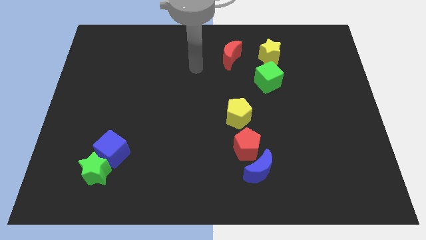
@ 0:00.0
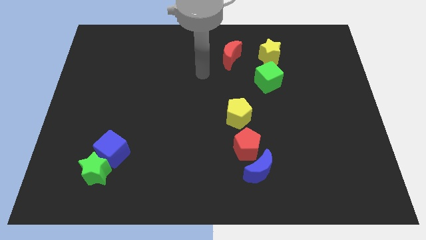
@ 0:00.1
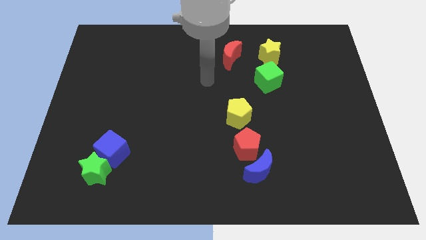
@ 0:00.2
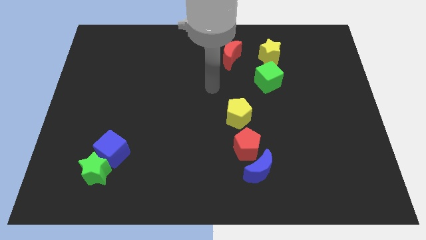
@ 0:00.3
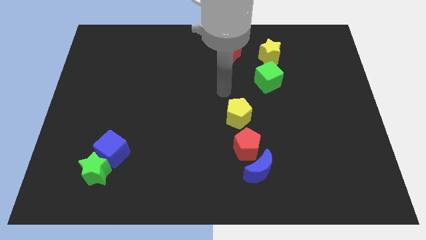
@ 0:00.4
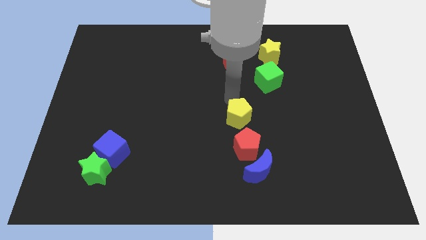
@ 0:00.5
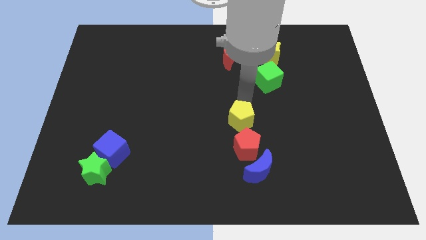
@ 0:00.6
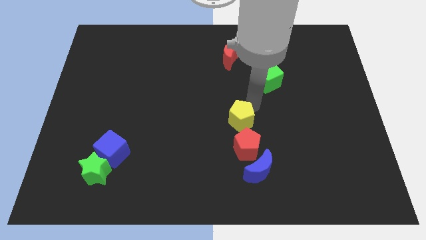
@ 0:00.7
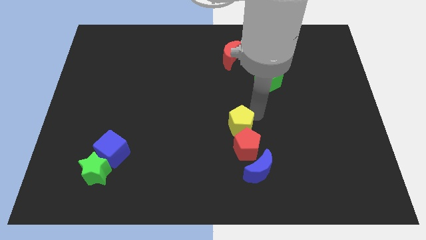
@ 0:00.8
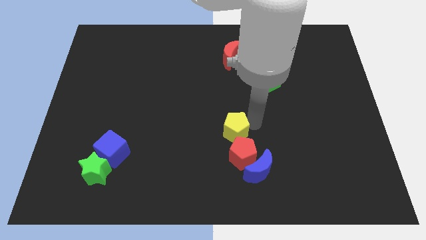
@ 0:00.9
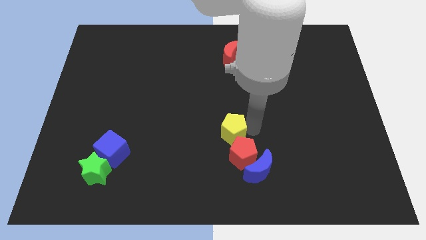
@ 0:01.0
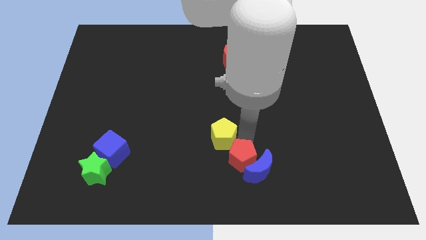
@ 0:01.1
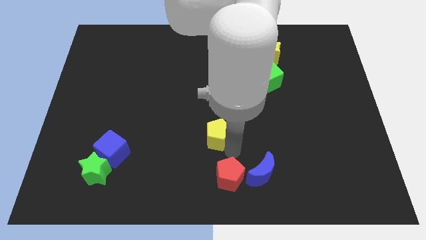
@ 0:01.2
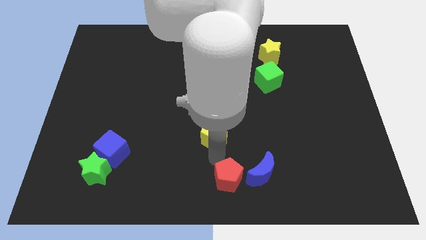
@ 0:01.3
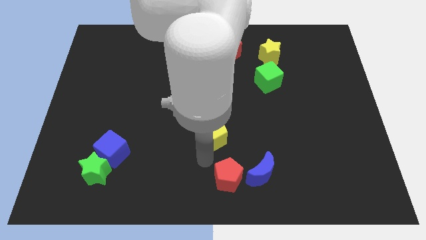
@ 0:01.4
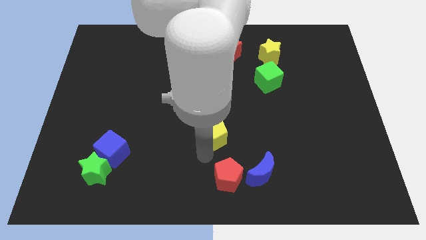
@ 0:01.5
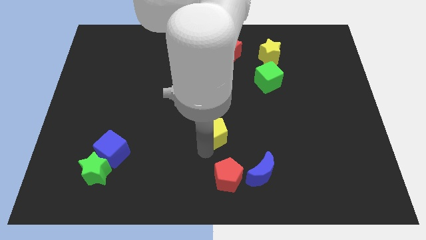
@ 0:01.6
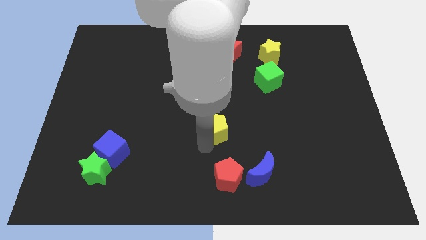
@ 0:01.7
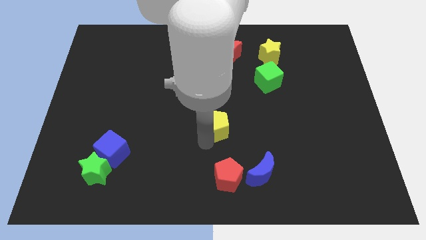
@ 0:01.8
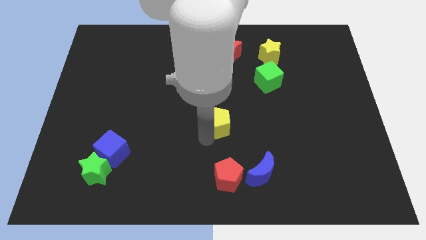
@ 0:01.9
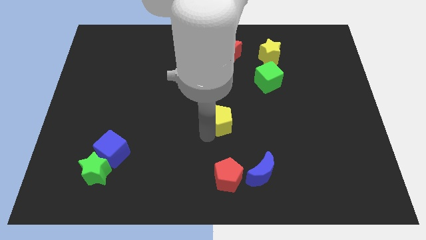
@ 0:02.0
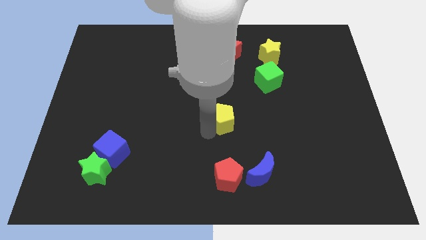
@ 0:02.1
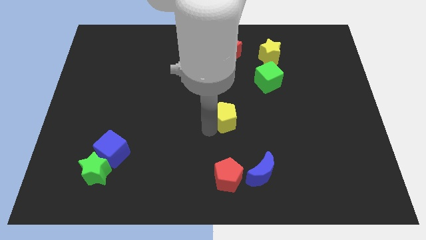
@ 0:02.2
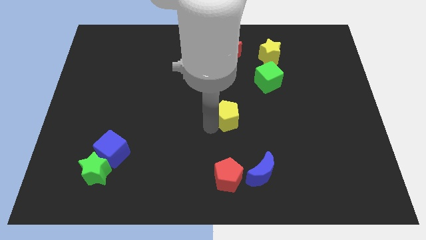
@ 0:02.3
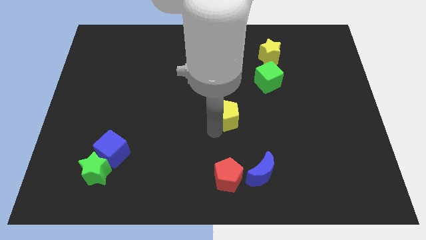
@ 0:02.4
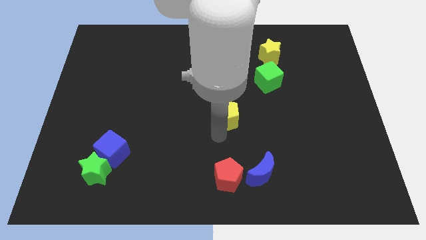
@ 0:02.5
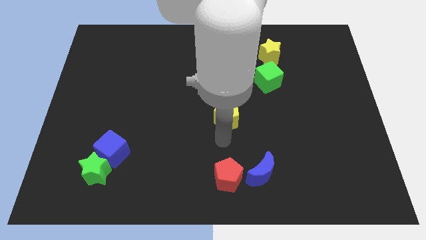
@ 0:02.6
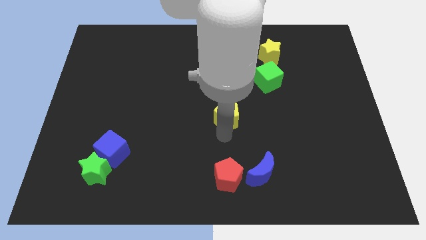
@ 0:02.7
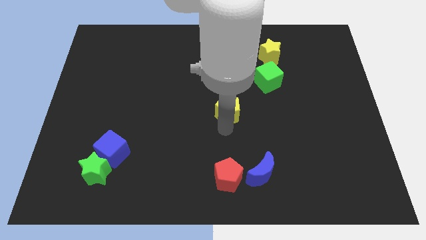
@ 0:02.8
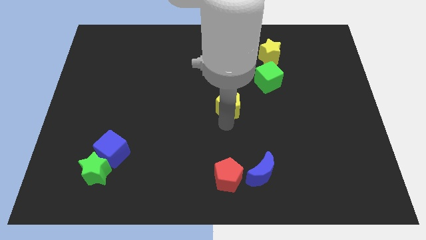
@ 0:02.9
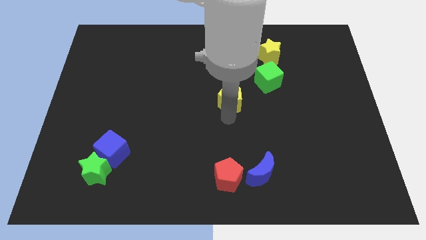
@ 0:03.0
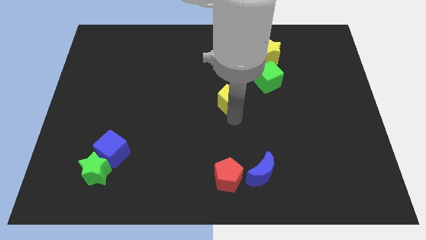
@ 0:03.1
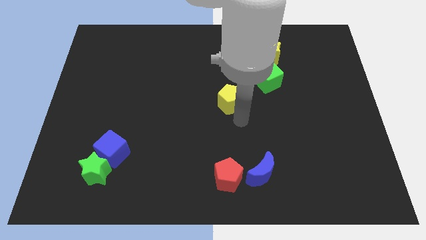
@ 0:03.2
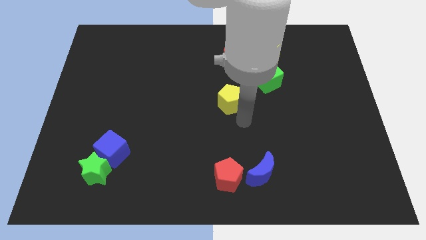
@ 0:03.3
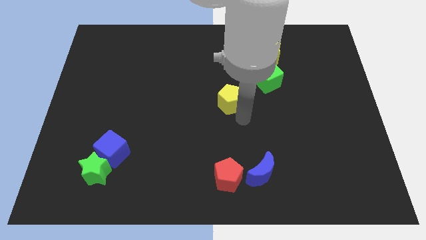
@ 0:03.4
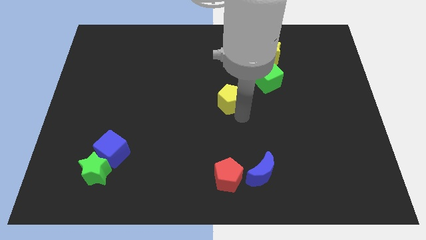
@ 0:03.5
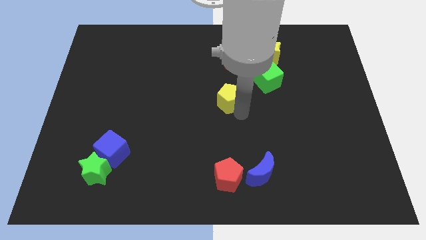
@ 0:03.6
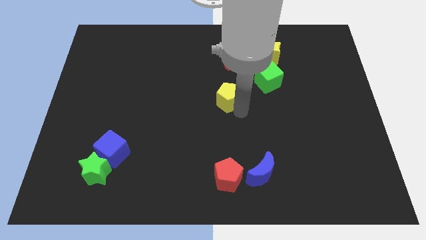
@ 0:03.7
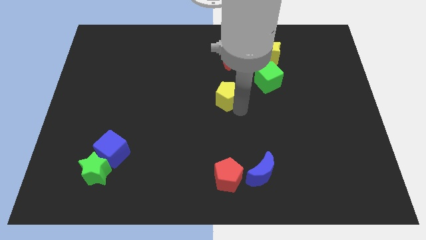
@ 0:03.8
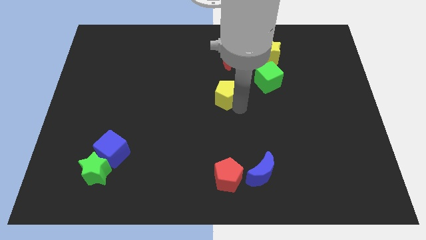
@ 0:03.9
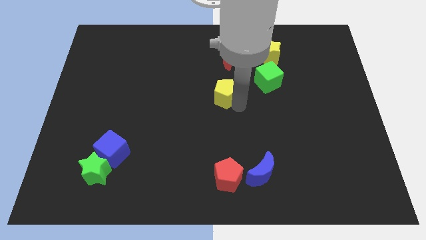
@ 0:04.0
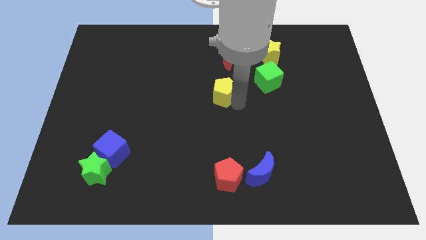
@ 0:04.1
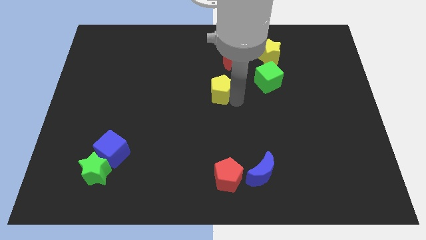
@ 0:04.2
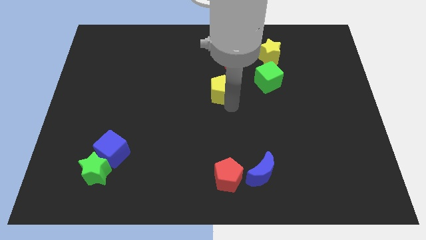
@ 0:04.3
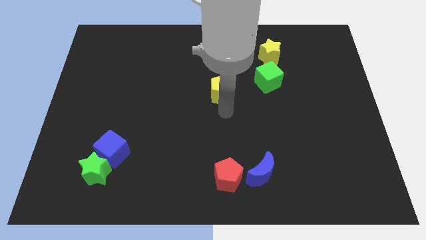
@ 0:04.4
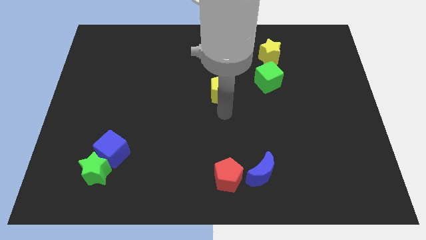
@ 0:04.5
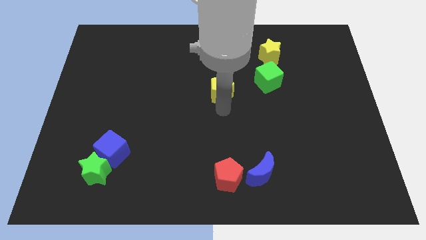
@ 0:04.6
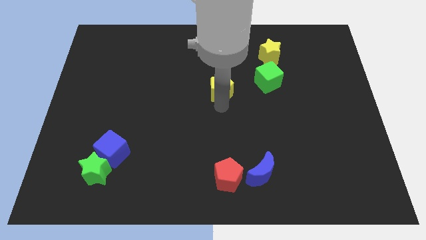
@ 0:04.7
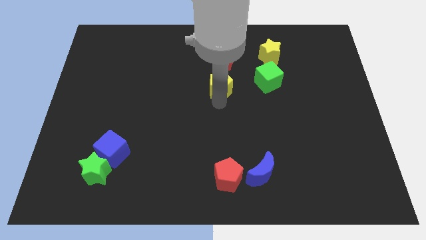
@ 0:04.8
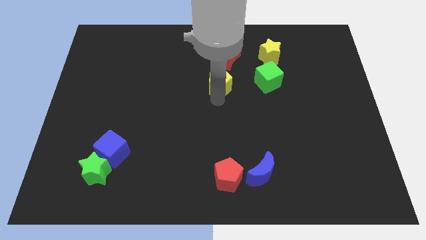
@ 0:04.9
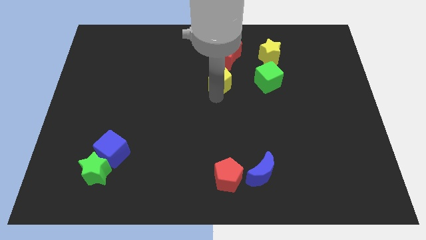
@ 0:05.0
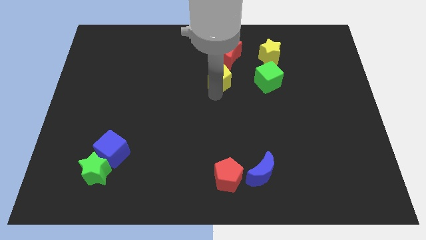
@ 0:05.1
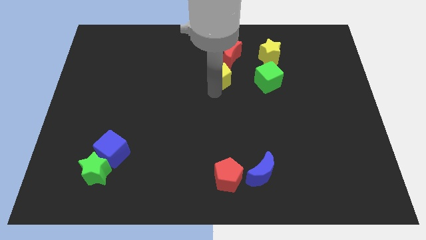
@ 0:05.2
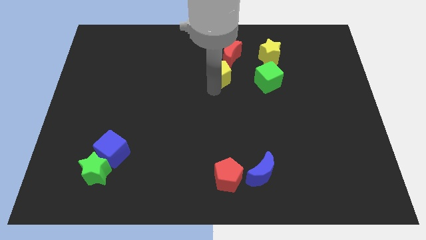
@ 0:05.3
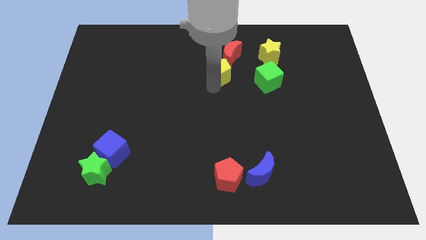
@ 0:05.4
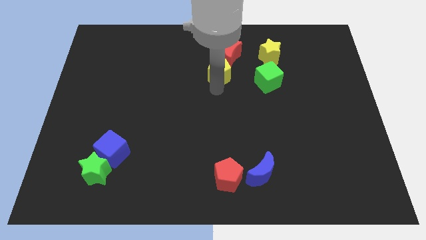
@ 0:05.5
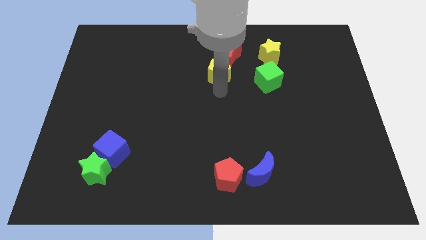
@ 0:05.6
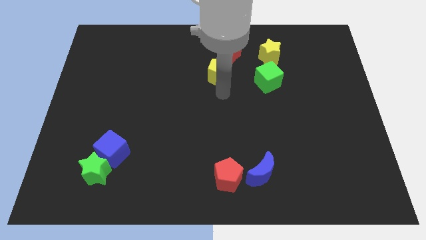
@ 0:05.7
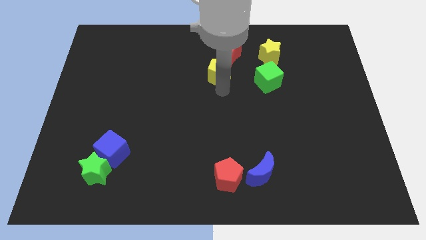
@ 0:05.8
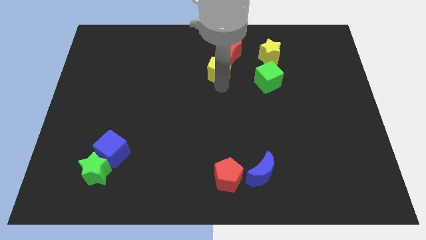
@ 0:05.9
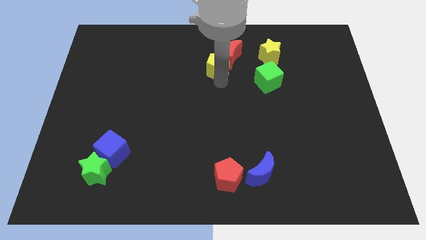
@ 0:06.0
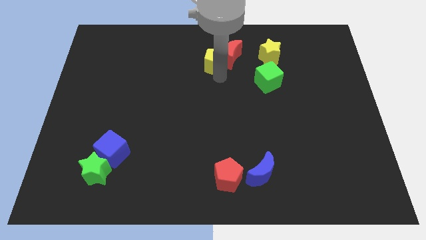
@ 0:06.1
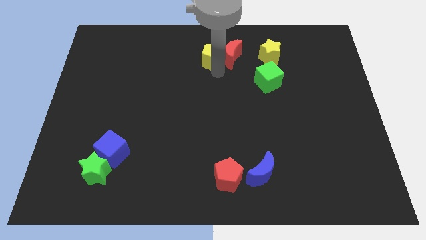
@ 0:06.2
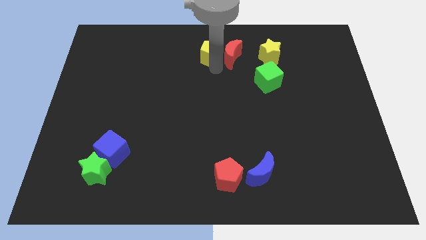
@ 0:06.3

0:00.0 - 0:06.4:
push the yellow pentagon to the towards your base
